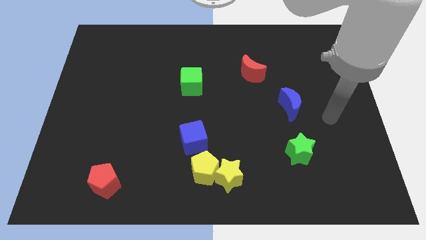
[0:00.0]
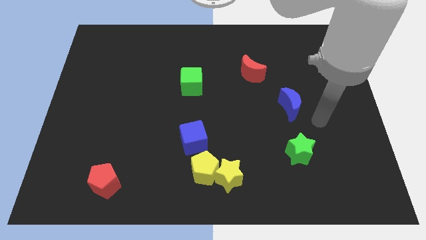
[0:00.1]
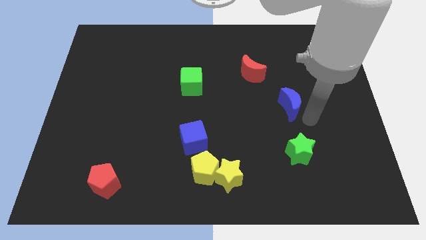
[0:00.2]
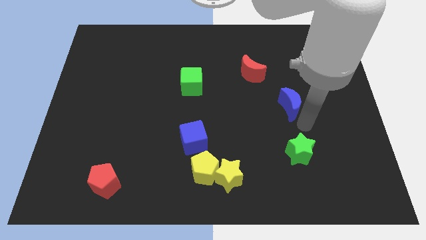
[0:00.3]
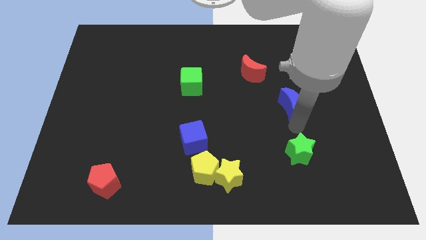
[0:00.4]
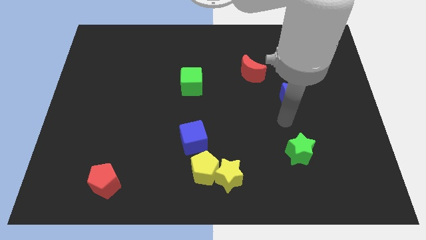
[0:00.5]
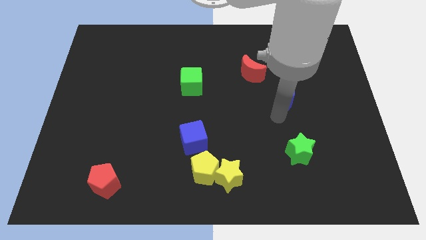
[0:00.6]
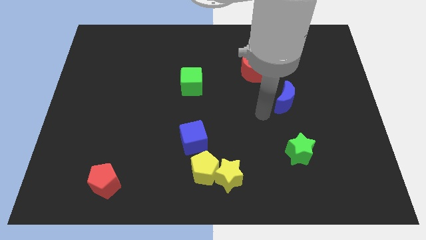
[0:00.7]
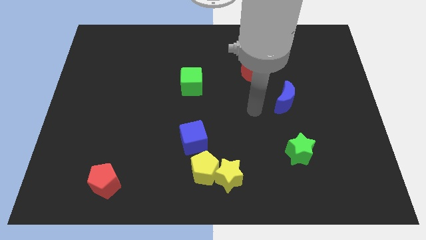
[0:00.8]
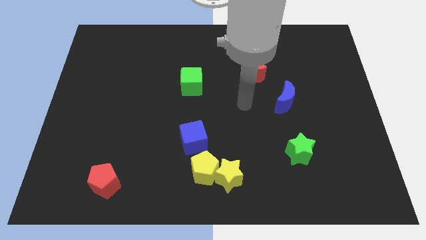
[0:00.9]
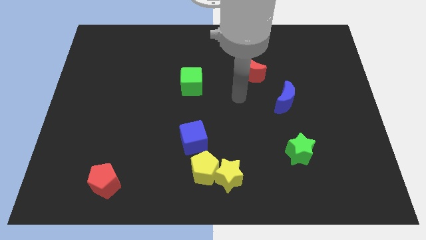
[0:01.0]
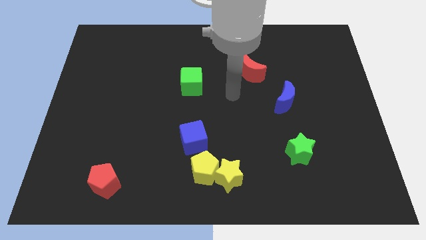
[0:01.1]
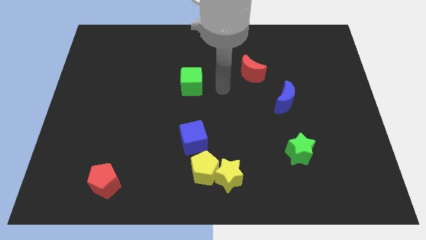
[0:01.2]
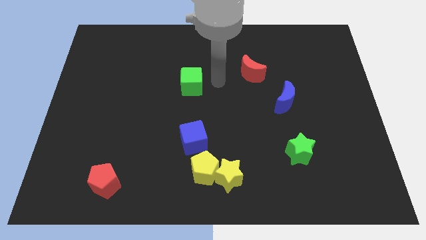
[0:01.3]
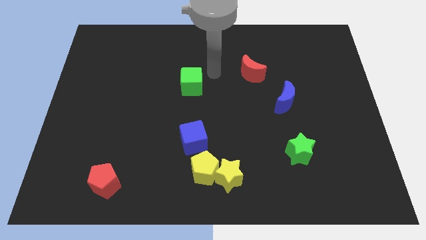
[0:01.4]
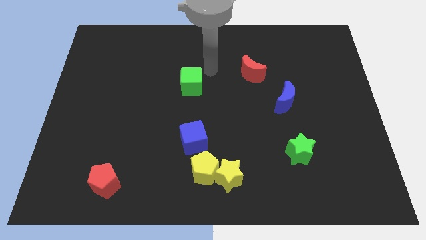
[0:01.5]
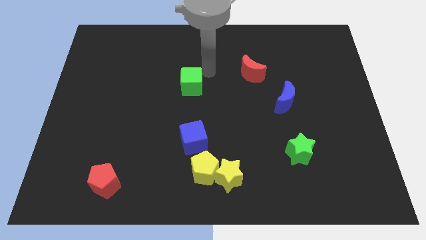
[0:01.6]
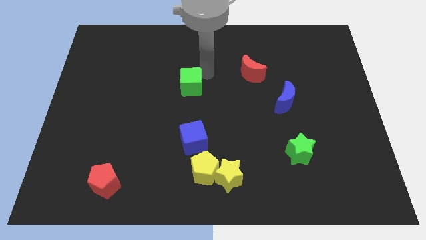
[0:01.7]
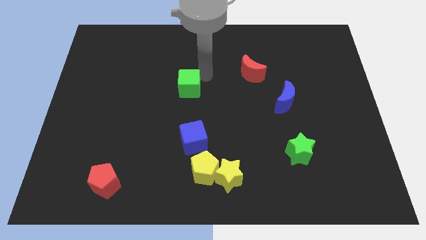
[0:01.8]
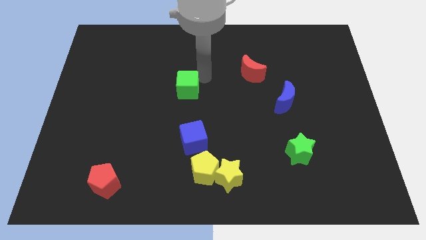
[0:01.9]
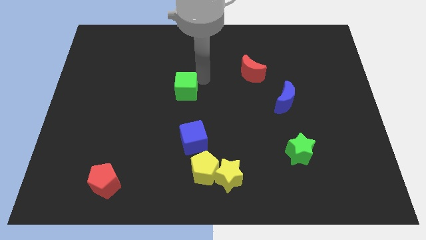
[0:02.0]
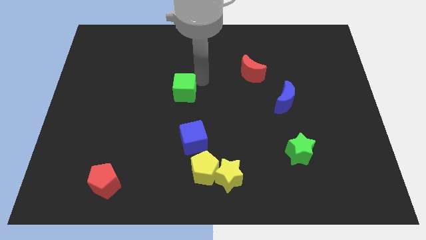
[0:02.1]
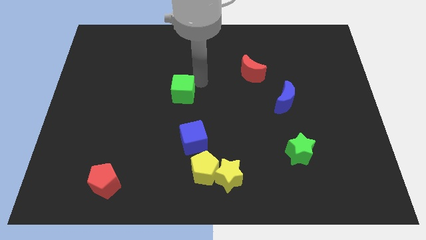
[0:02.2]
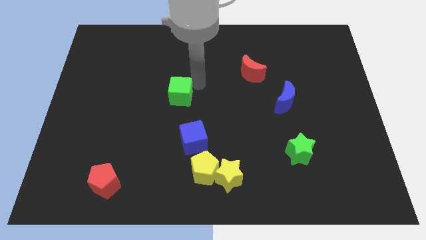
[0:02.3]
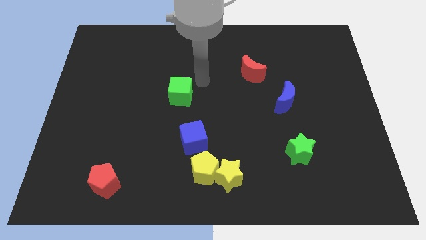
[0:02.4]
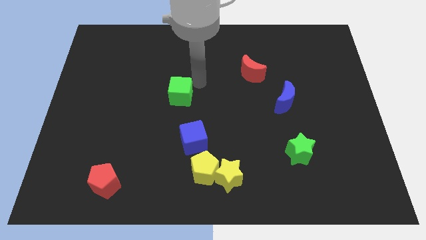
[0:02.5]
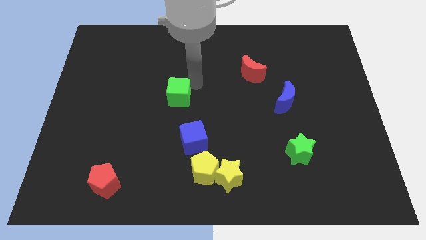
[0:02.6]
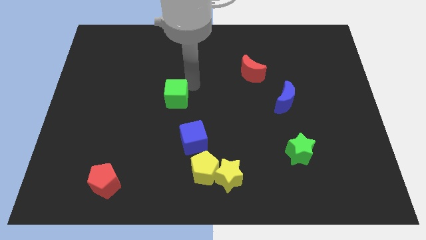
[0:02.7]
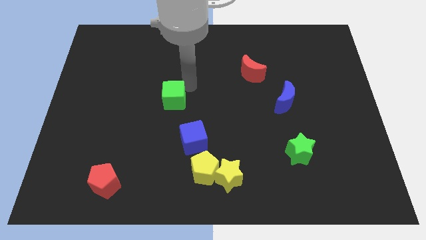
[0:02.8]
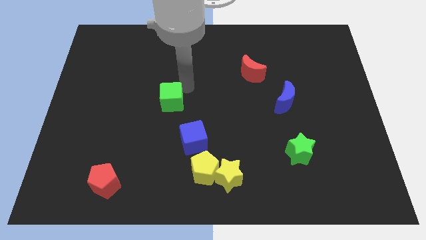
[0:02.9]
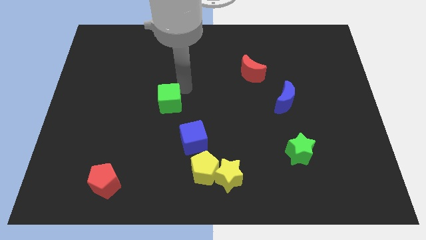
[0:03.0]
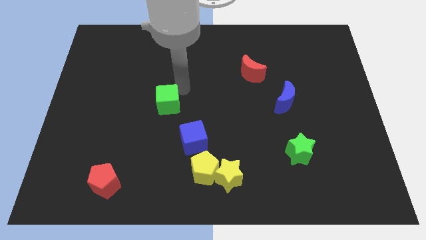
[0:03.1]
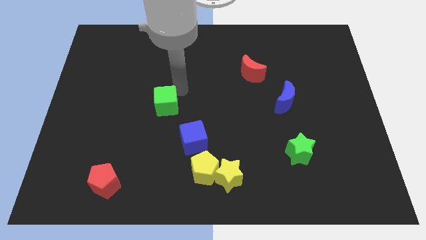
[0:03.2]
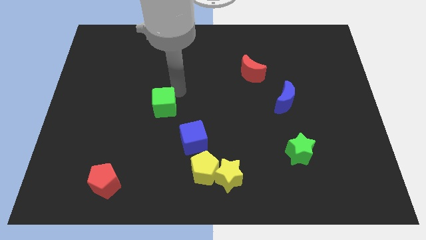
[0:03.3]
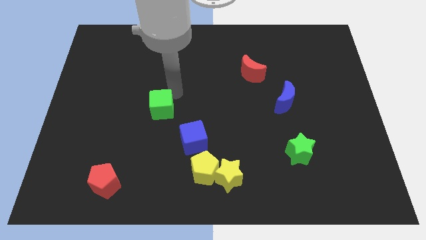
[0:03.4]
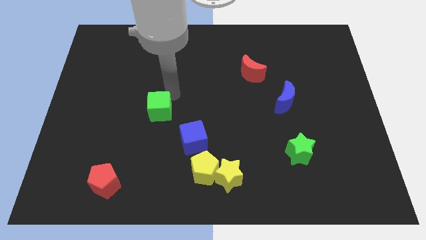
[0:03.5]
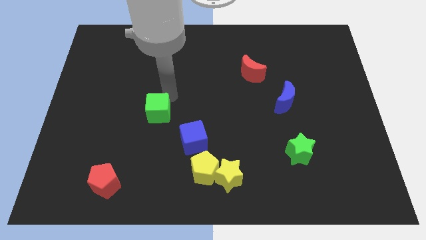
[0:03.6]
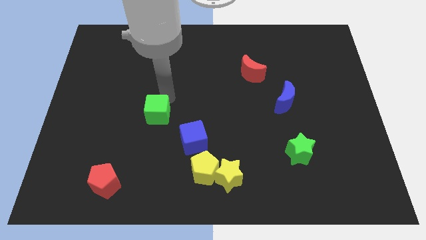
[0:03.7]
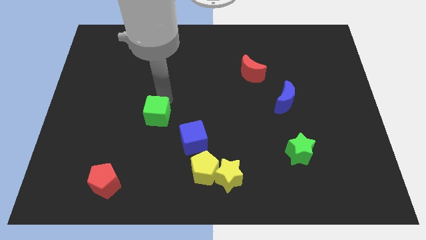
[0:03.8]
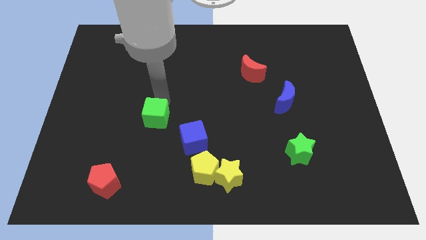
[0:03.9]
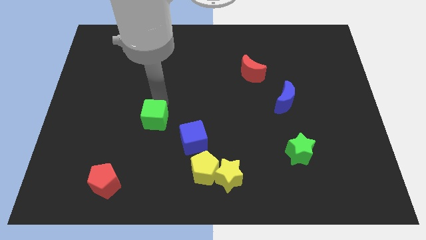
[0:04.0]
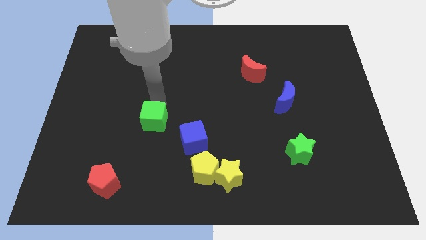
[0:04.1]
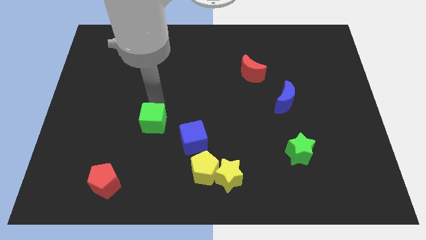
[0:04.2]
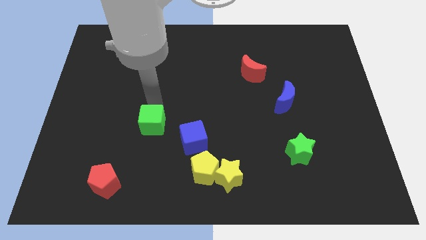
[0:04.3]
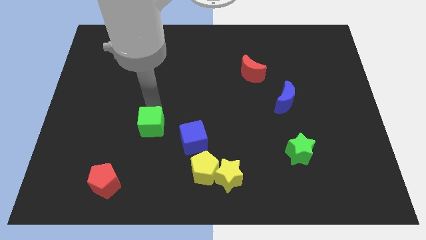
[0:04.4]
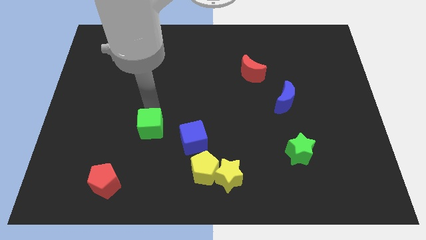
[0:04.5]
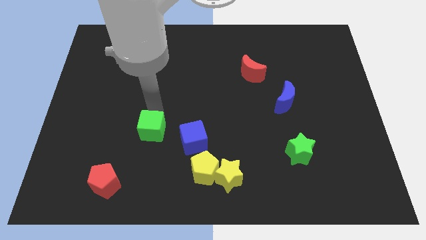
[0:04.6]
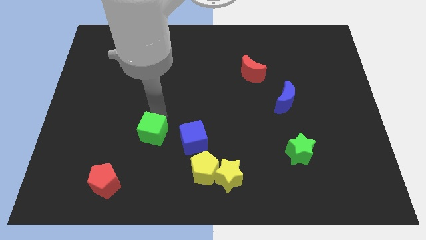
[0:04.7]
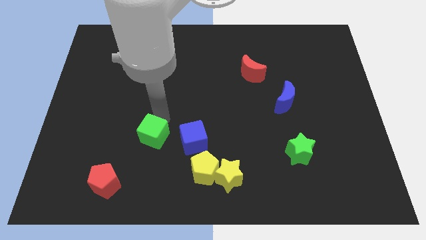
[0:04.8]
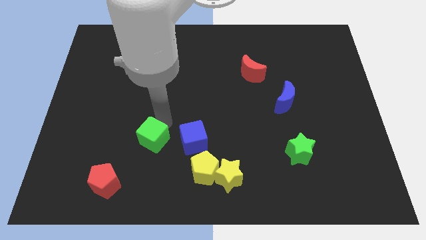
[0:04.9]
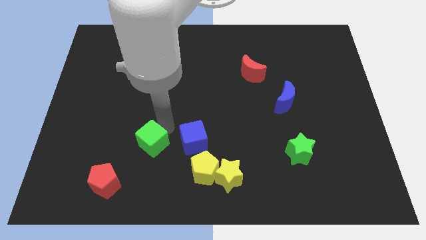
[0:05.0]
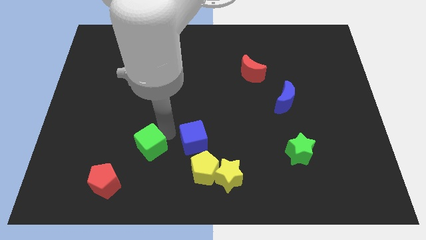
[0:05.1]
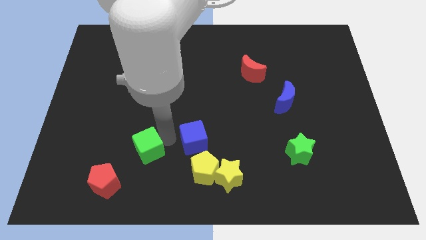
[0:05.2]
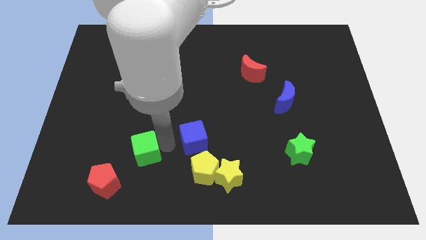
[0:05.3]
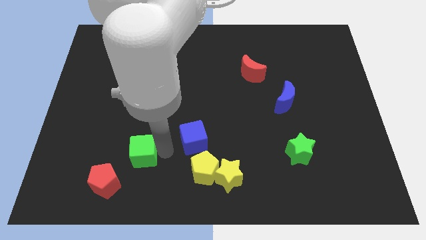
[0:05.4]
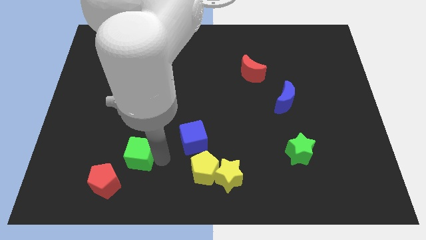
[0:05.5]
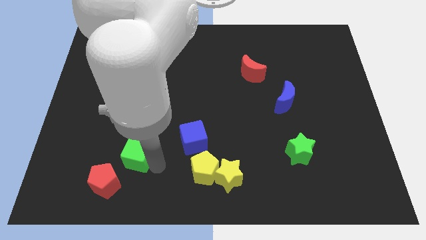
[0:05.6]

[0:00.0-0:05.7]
slide the green cube diagonally down and to the left

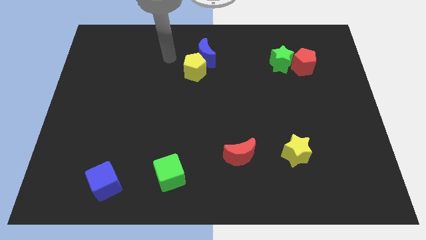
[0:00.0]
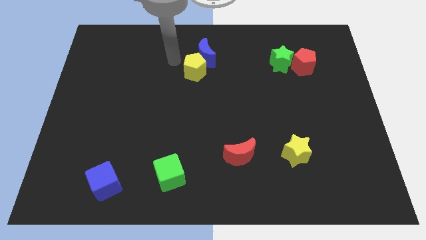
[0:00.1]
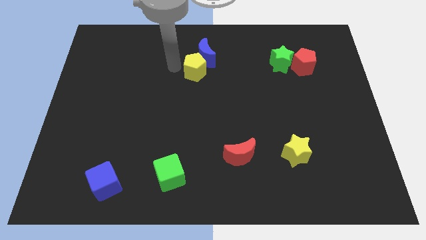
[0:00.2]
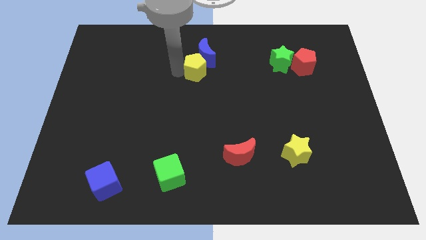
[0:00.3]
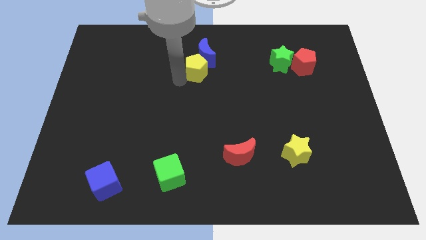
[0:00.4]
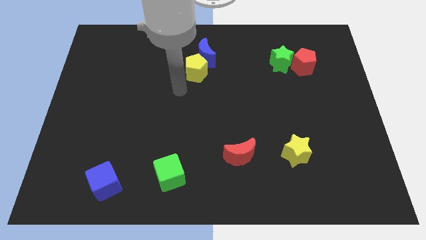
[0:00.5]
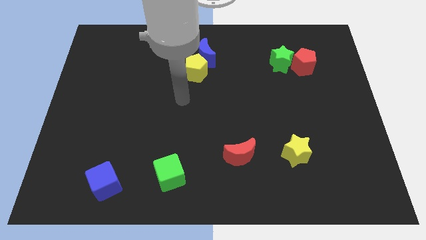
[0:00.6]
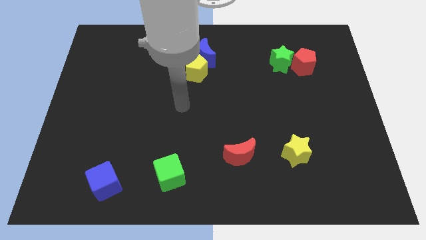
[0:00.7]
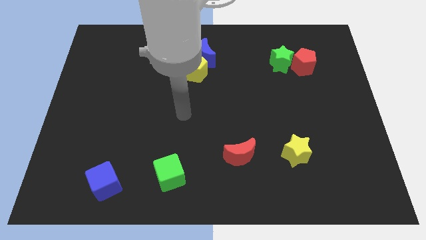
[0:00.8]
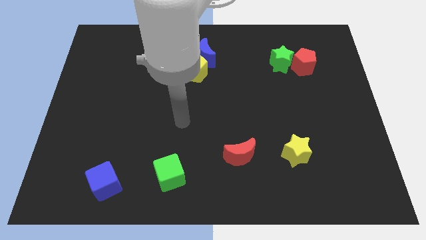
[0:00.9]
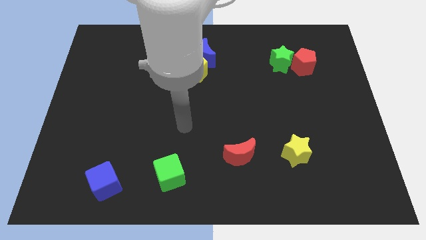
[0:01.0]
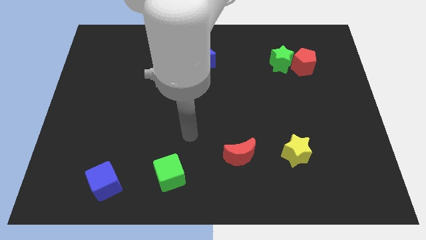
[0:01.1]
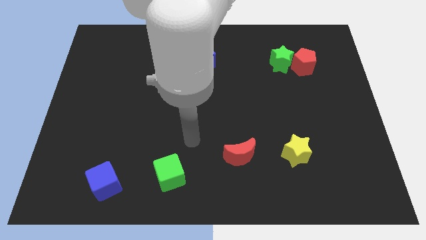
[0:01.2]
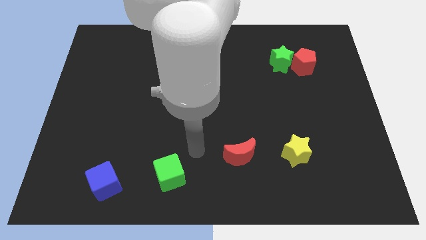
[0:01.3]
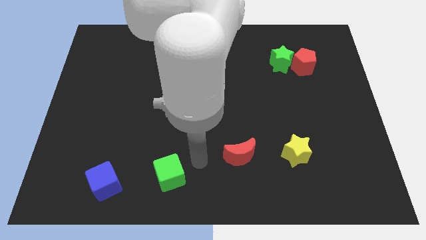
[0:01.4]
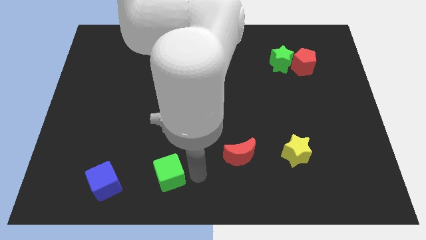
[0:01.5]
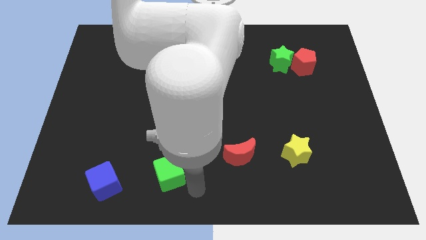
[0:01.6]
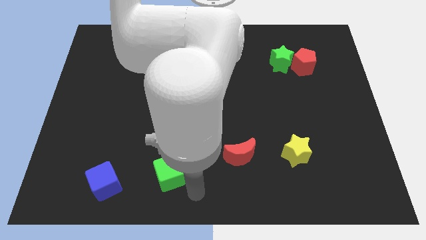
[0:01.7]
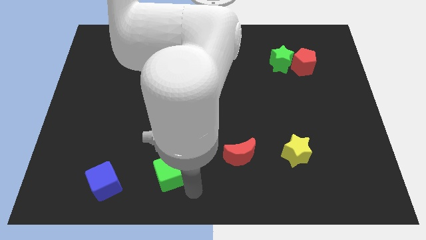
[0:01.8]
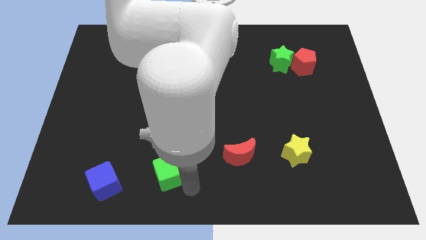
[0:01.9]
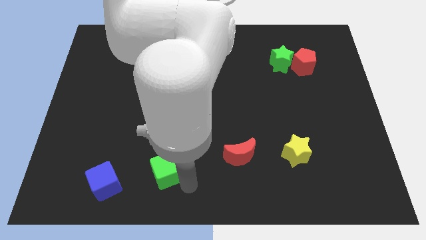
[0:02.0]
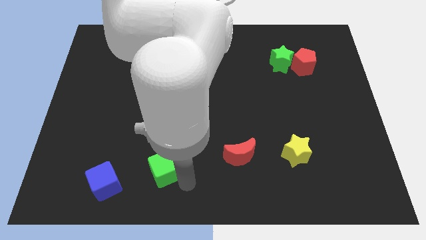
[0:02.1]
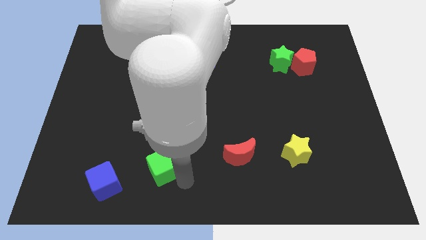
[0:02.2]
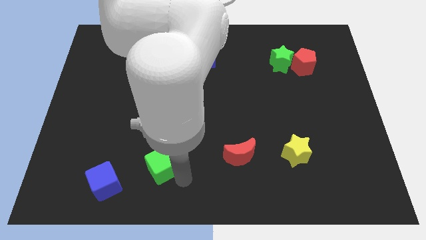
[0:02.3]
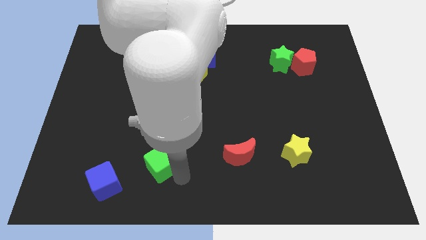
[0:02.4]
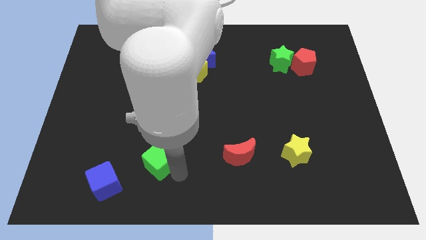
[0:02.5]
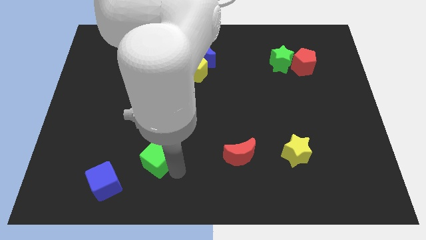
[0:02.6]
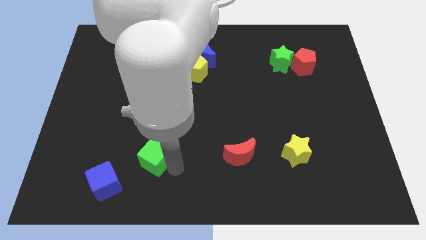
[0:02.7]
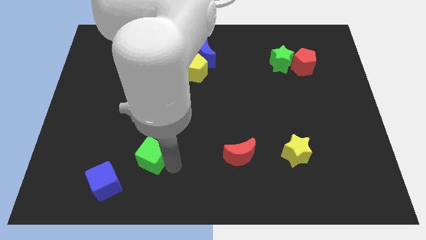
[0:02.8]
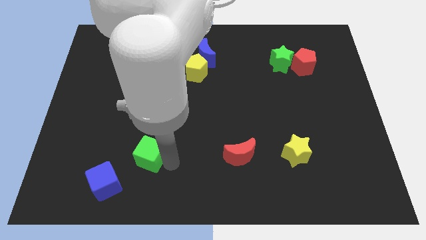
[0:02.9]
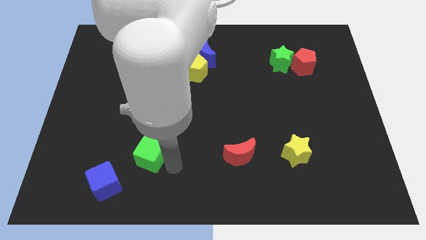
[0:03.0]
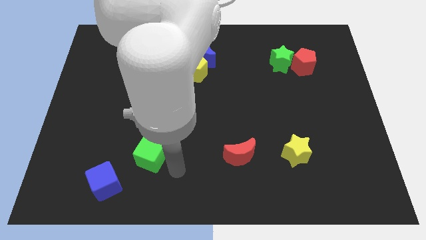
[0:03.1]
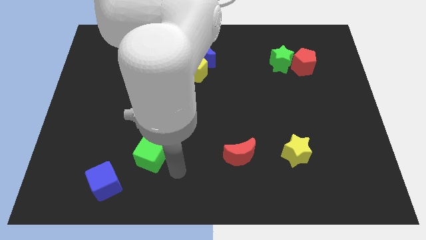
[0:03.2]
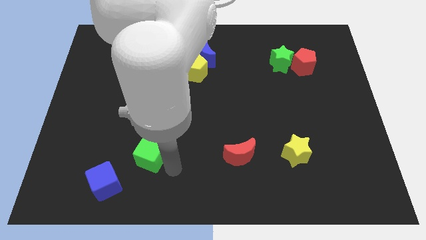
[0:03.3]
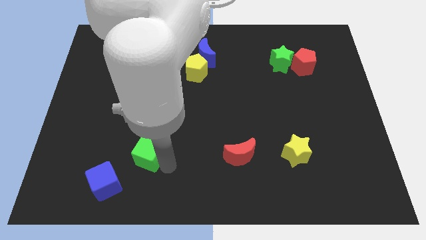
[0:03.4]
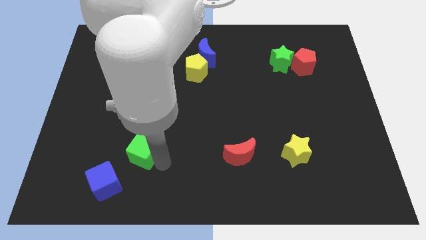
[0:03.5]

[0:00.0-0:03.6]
move the green cube upwards and to the left diagonally a little
